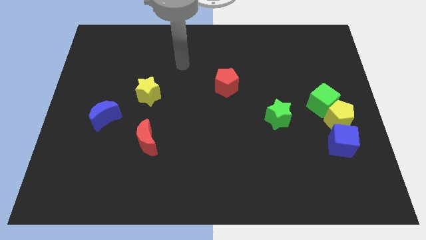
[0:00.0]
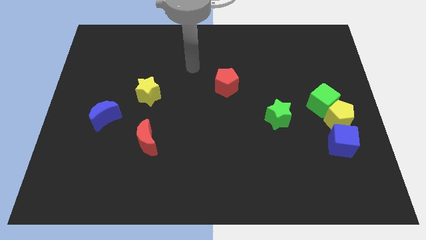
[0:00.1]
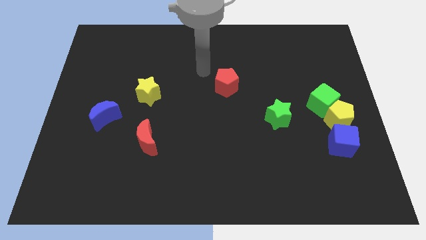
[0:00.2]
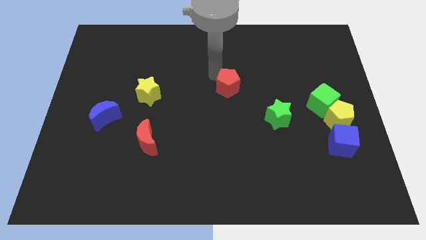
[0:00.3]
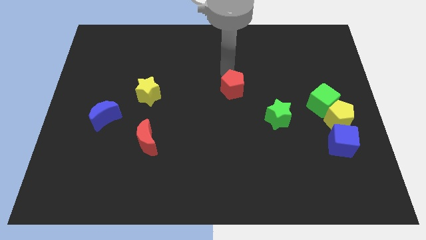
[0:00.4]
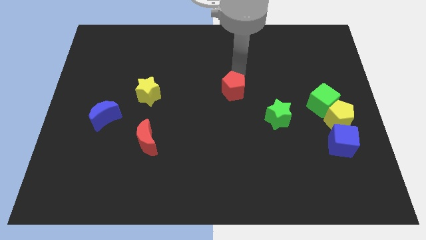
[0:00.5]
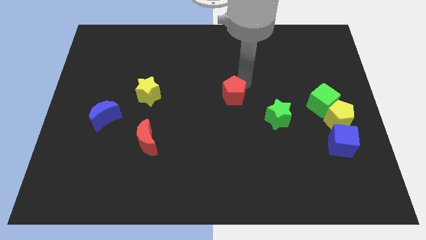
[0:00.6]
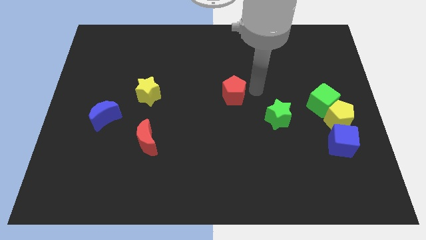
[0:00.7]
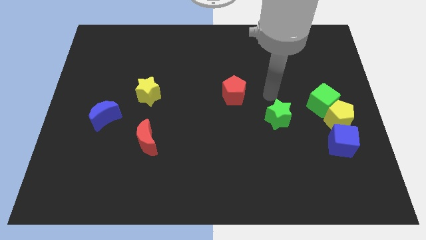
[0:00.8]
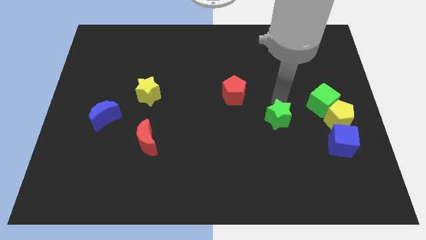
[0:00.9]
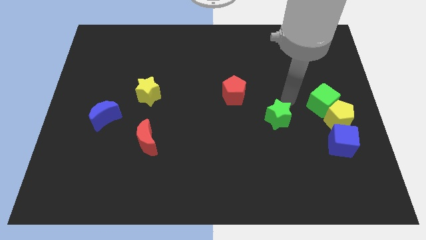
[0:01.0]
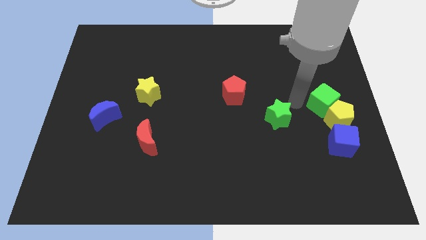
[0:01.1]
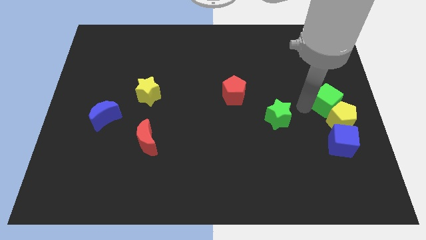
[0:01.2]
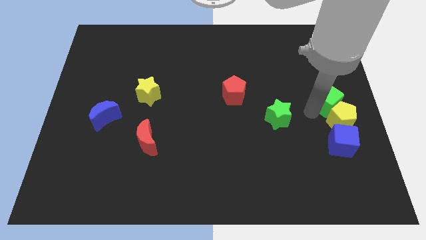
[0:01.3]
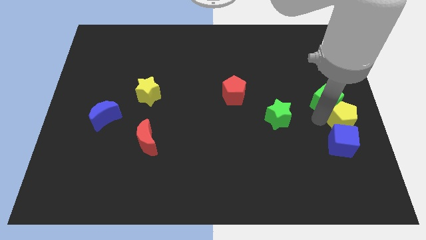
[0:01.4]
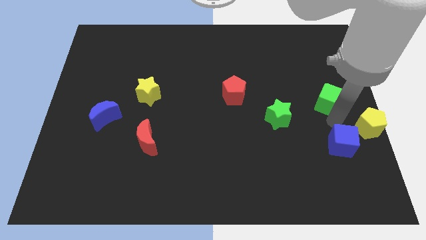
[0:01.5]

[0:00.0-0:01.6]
move the green cube away from the yellow pentagon

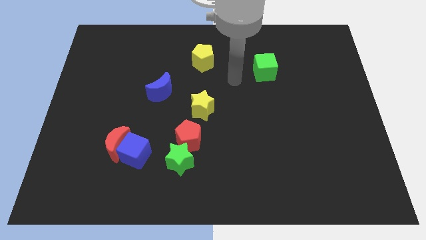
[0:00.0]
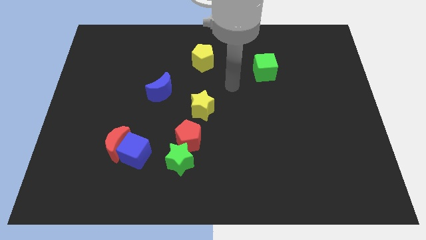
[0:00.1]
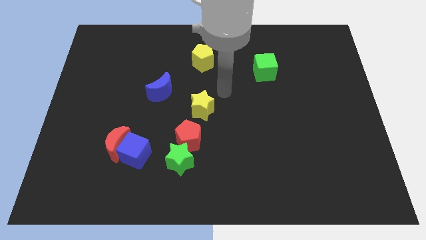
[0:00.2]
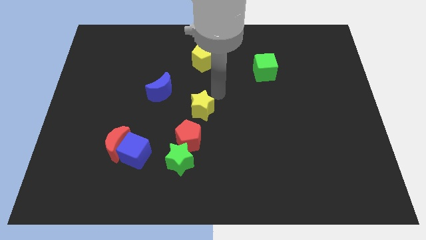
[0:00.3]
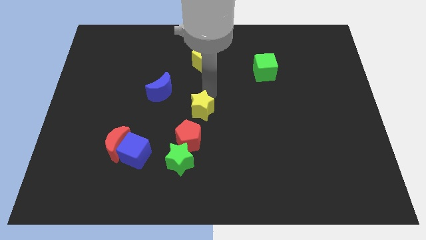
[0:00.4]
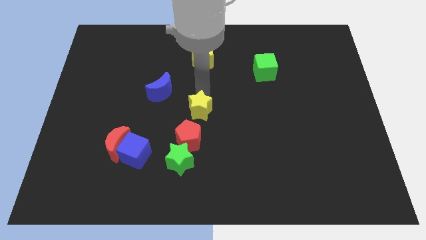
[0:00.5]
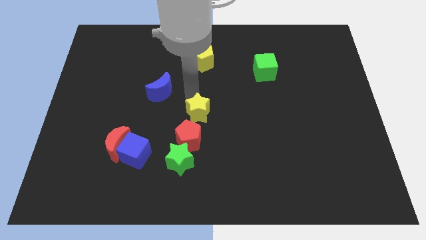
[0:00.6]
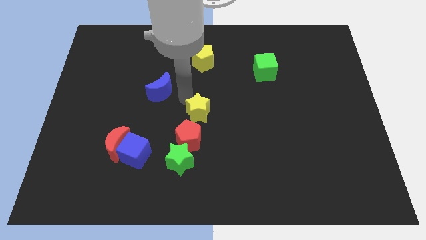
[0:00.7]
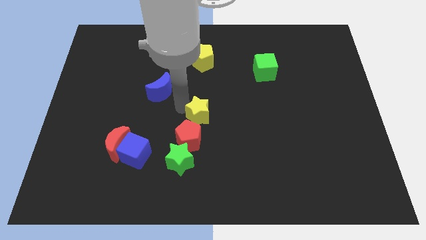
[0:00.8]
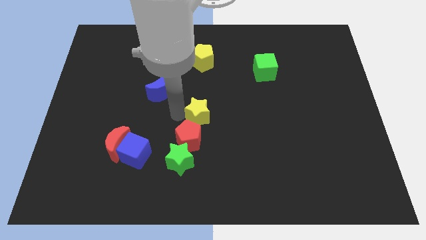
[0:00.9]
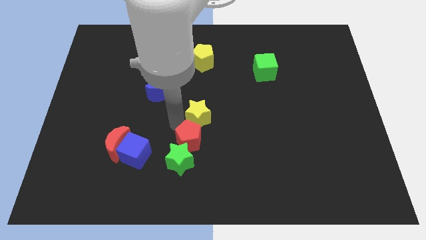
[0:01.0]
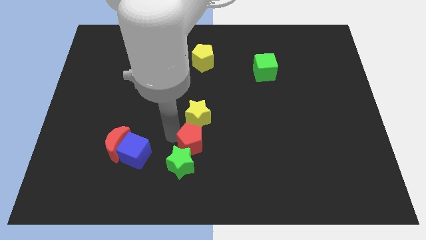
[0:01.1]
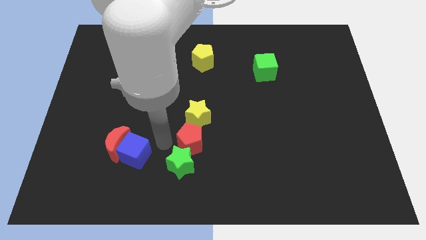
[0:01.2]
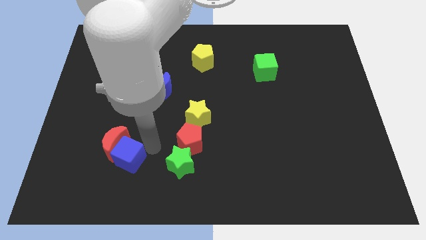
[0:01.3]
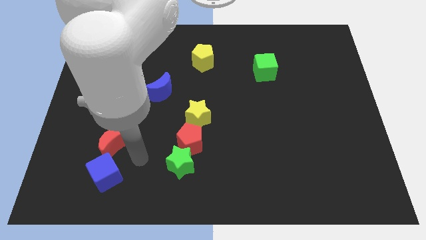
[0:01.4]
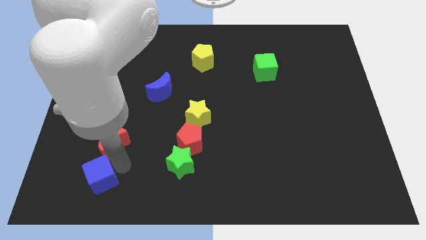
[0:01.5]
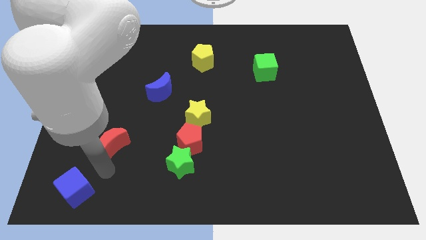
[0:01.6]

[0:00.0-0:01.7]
move the red moon away from the blue cube

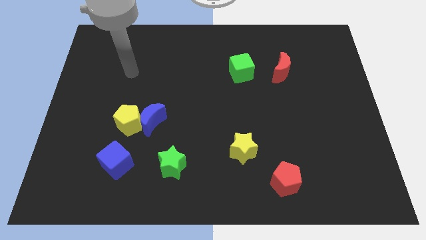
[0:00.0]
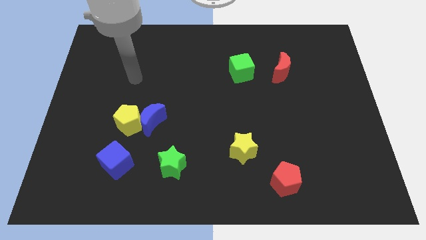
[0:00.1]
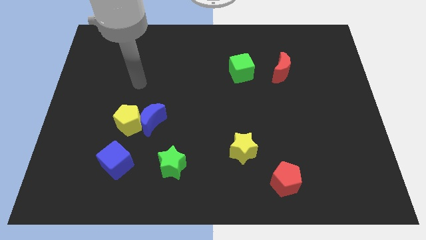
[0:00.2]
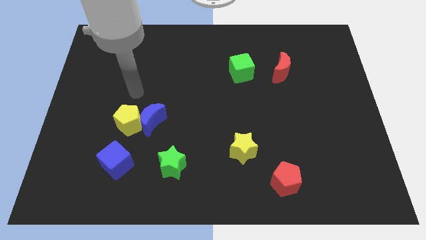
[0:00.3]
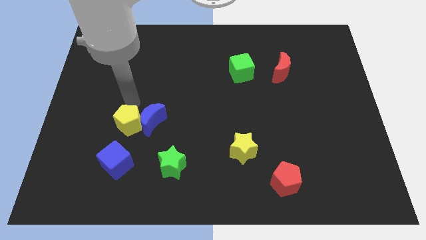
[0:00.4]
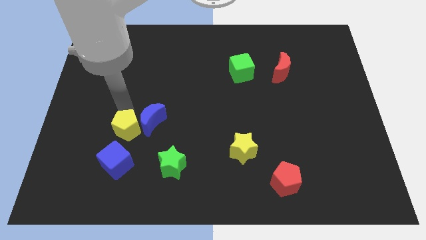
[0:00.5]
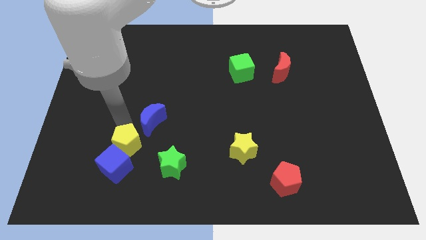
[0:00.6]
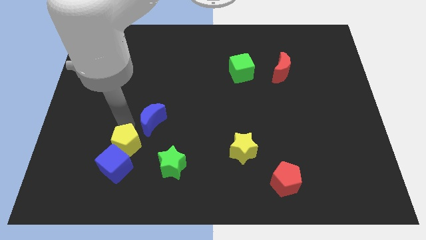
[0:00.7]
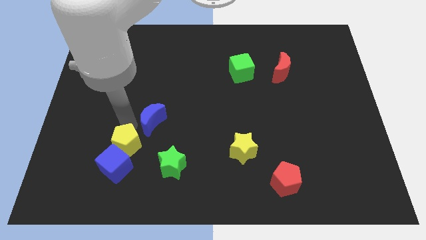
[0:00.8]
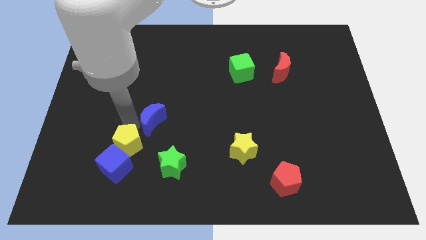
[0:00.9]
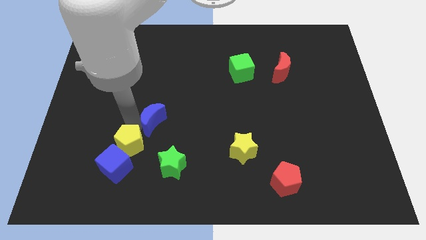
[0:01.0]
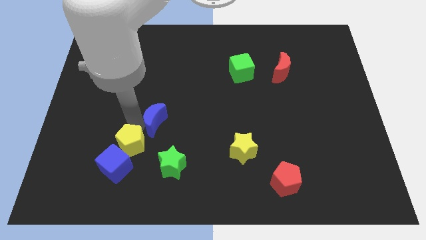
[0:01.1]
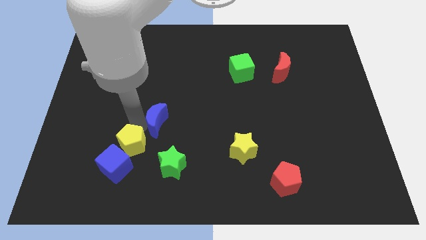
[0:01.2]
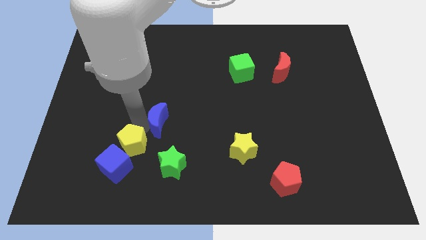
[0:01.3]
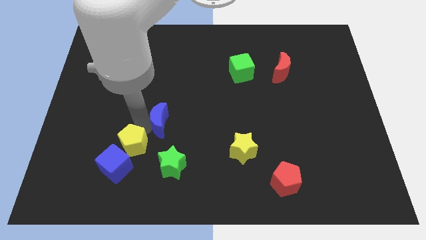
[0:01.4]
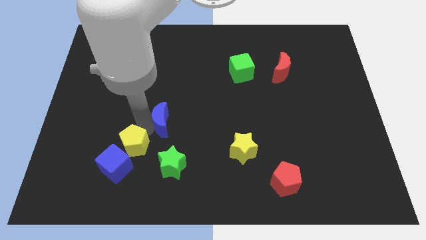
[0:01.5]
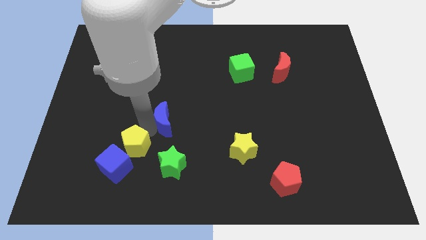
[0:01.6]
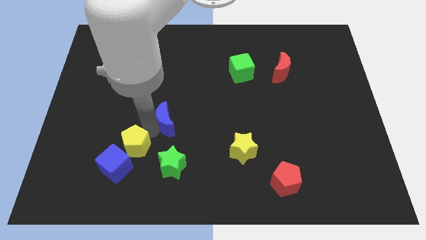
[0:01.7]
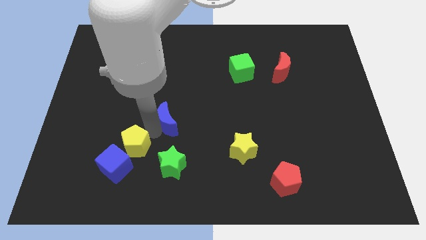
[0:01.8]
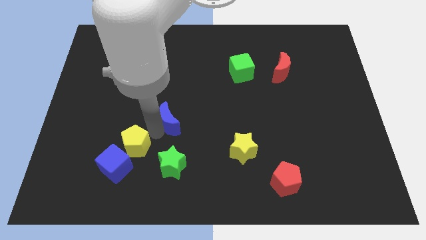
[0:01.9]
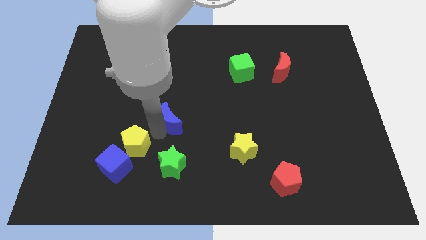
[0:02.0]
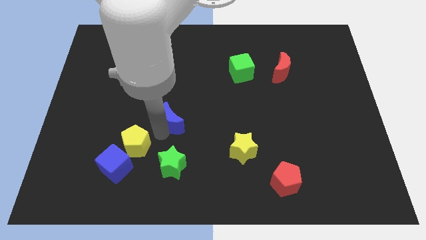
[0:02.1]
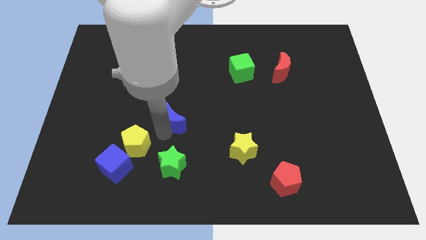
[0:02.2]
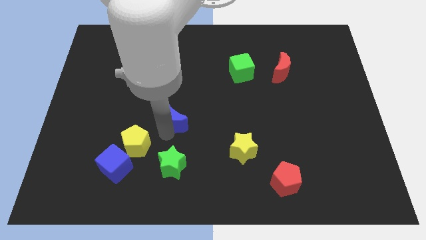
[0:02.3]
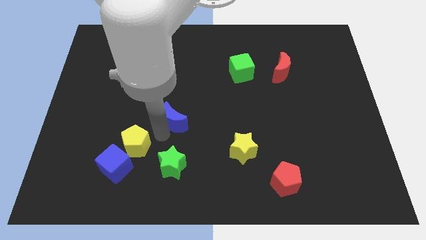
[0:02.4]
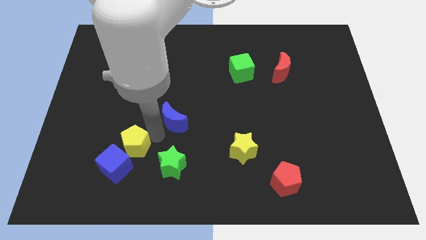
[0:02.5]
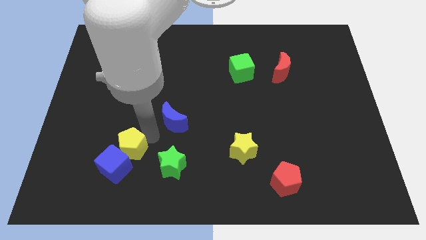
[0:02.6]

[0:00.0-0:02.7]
separate the blue moon from the yellow pentagon

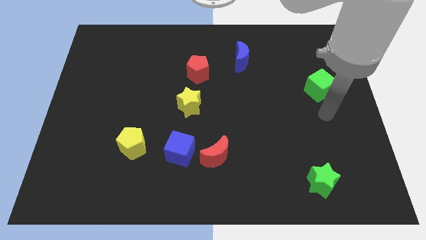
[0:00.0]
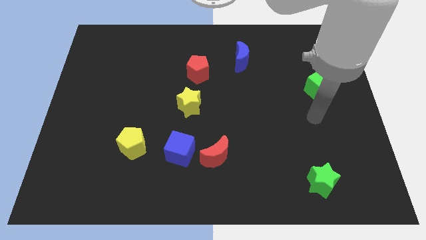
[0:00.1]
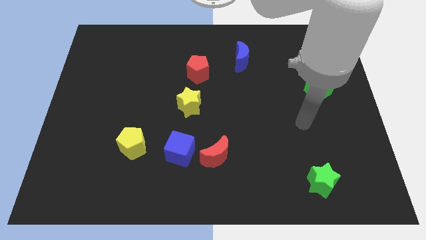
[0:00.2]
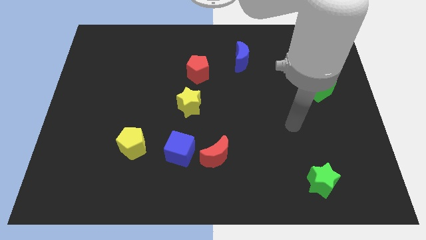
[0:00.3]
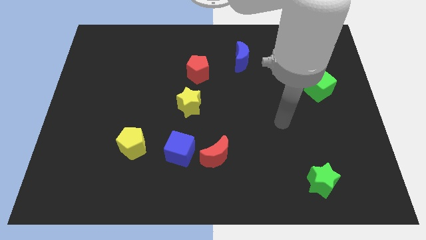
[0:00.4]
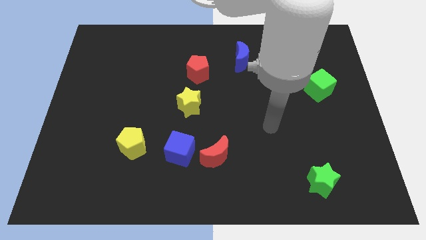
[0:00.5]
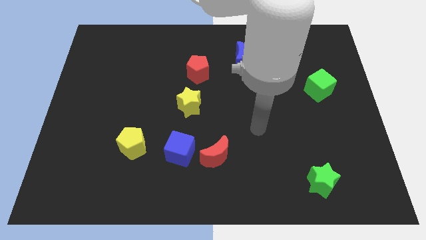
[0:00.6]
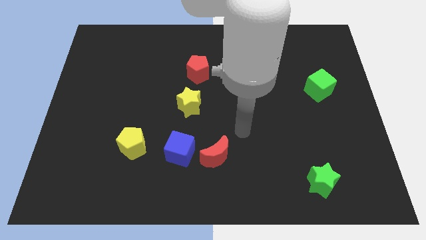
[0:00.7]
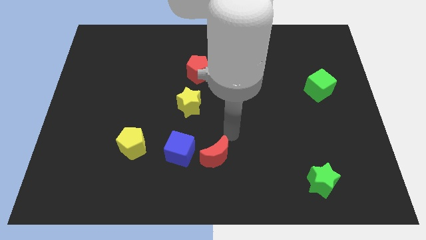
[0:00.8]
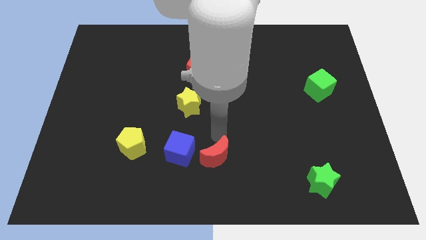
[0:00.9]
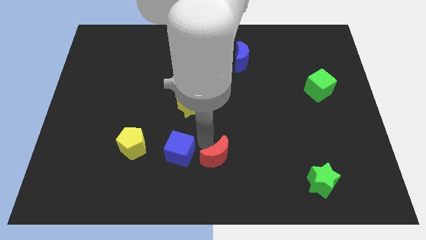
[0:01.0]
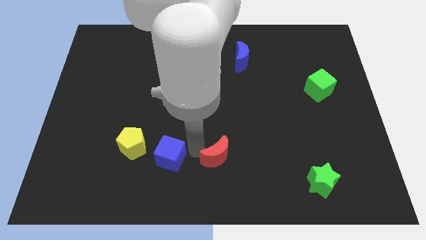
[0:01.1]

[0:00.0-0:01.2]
separate the red moon from the blue cube

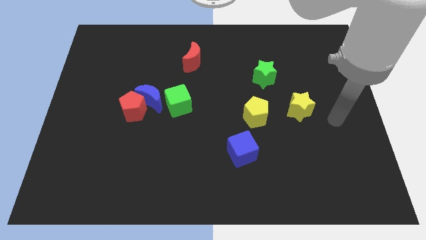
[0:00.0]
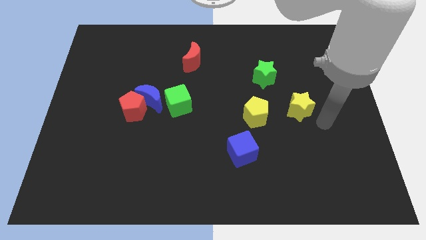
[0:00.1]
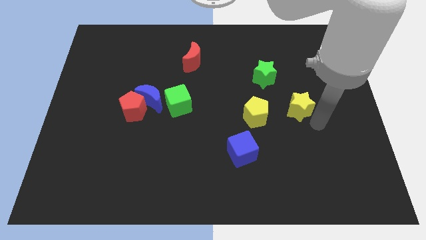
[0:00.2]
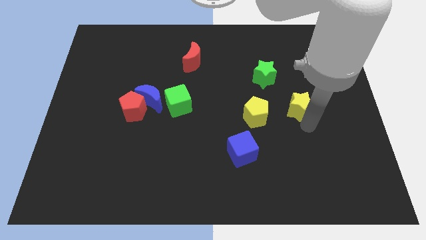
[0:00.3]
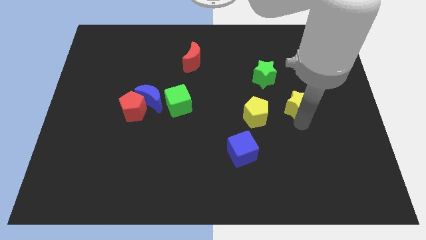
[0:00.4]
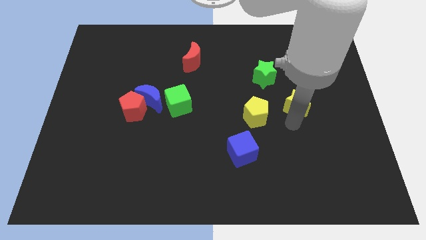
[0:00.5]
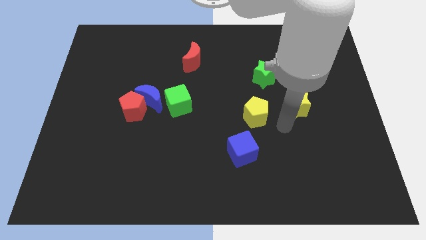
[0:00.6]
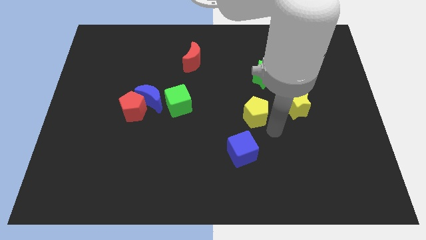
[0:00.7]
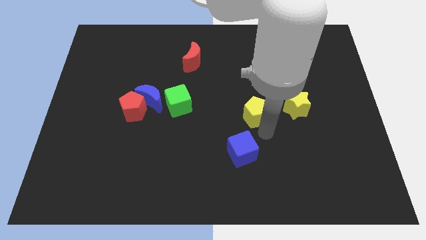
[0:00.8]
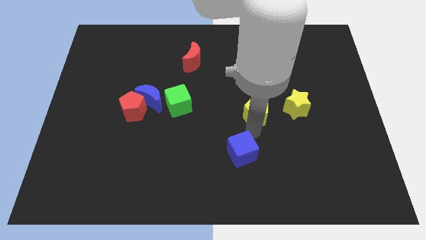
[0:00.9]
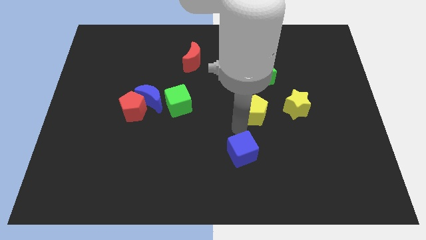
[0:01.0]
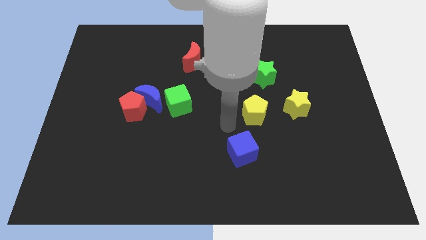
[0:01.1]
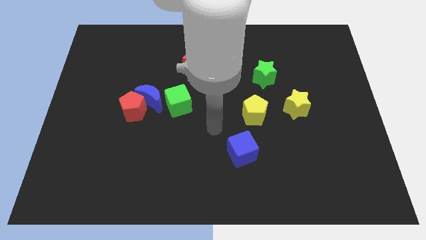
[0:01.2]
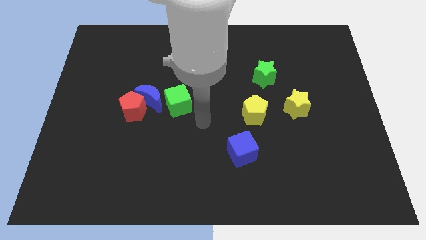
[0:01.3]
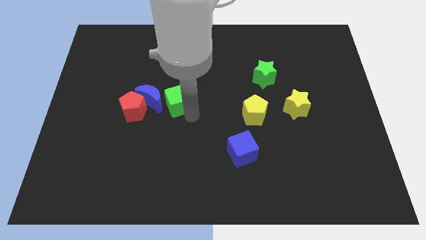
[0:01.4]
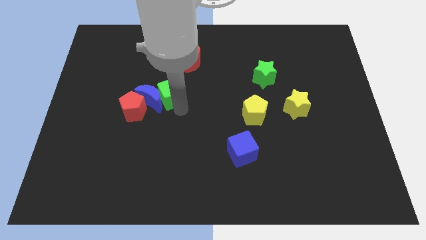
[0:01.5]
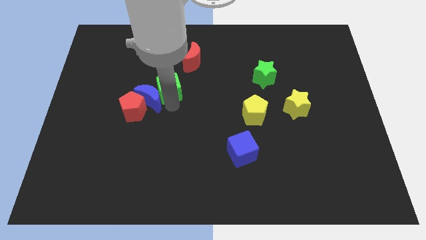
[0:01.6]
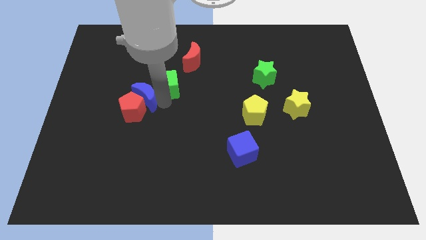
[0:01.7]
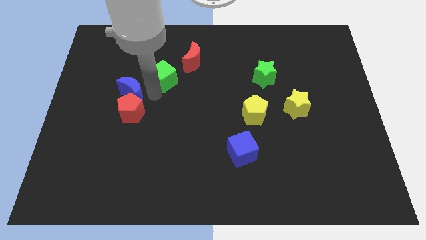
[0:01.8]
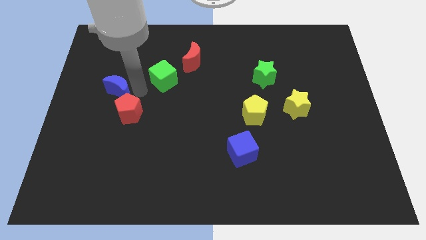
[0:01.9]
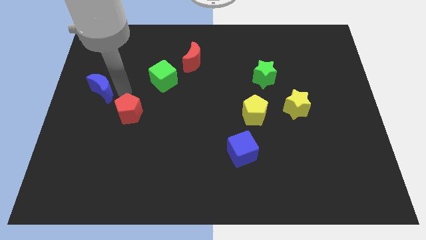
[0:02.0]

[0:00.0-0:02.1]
pull the red pentagon apart from the blue moon
